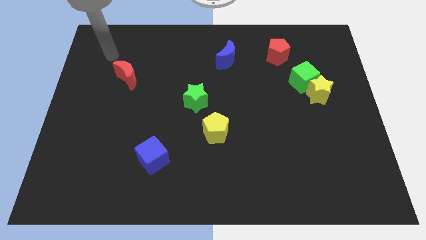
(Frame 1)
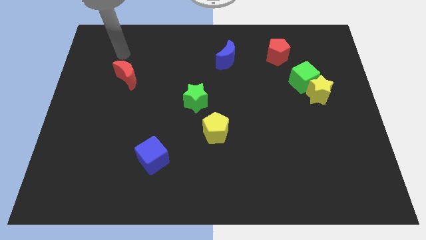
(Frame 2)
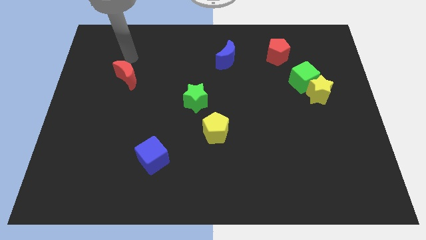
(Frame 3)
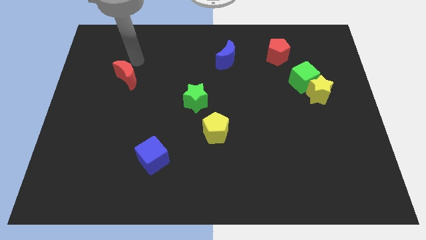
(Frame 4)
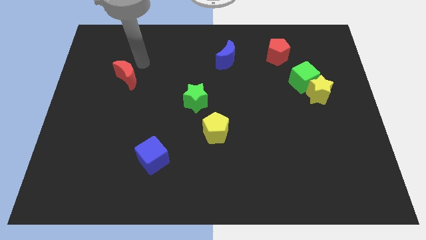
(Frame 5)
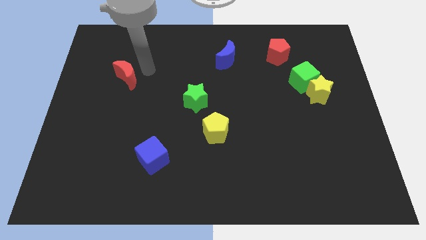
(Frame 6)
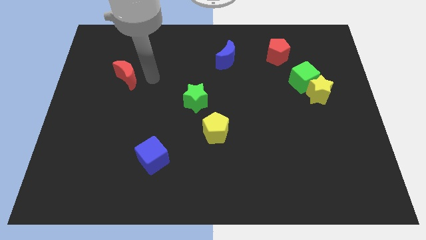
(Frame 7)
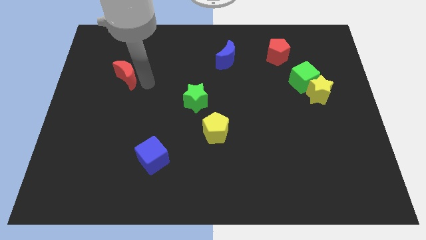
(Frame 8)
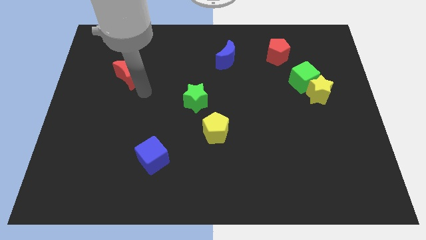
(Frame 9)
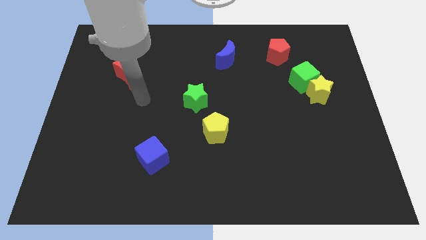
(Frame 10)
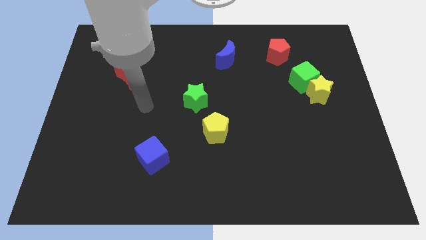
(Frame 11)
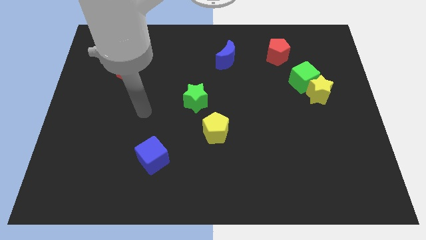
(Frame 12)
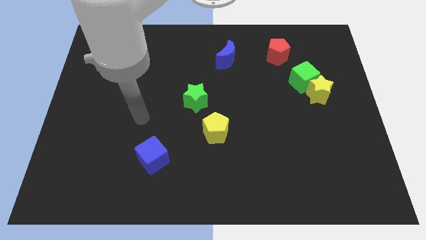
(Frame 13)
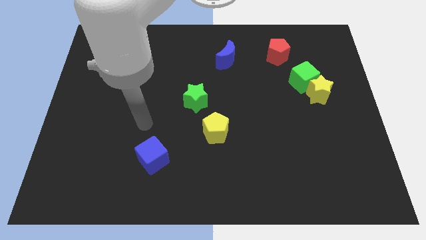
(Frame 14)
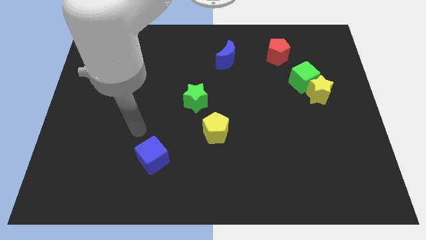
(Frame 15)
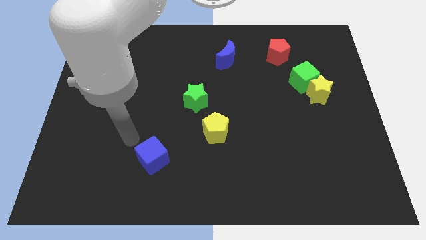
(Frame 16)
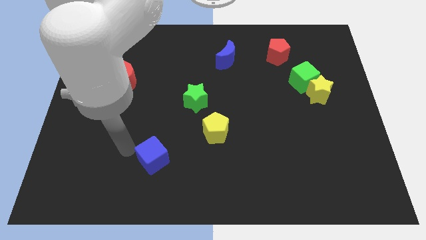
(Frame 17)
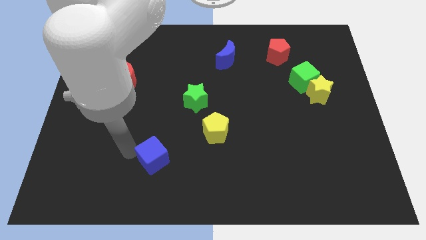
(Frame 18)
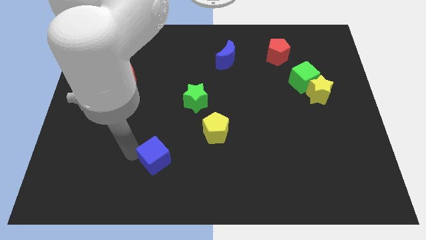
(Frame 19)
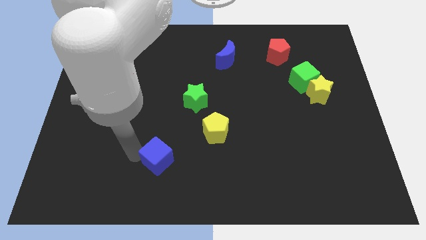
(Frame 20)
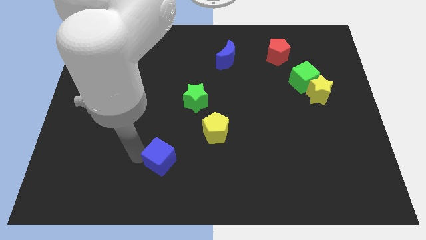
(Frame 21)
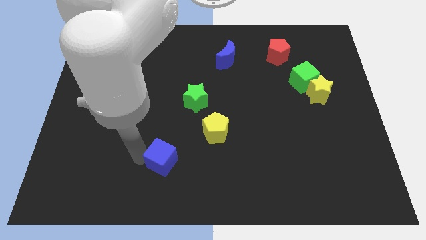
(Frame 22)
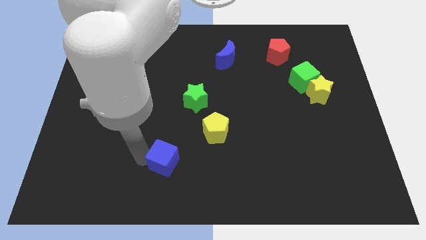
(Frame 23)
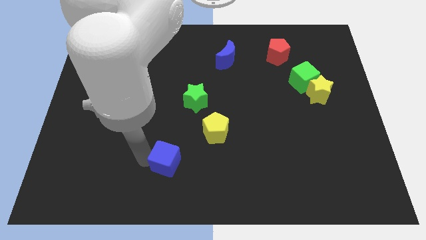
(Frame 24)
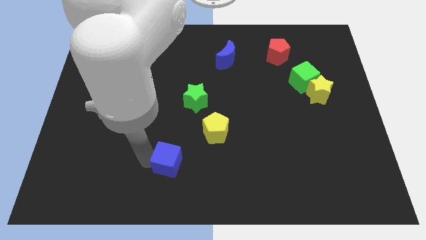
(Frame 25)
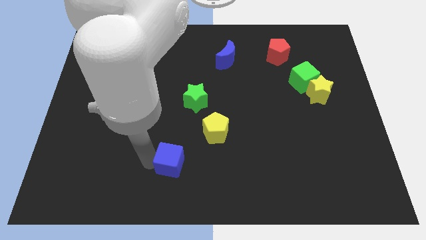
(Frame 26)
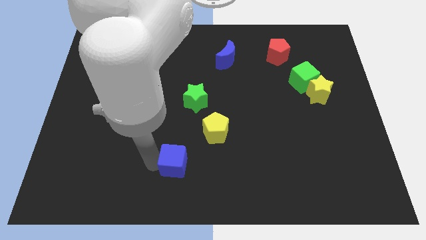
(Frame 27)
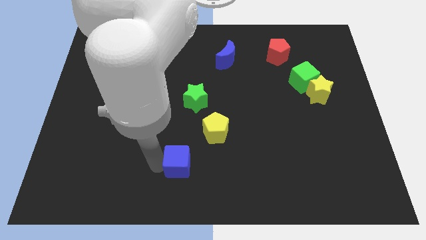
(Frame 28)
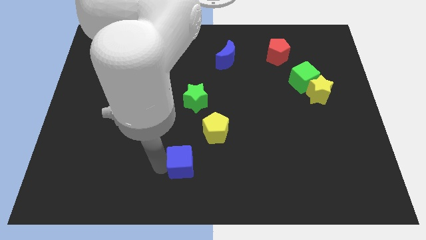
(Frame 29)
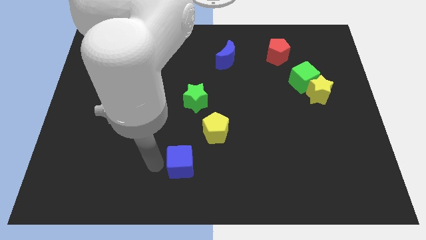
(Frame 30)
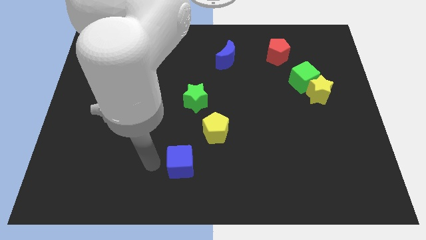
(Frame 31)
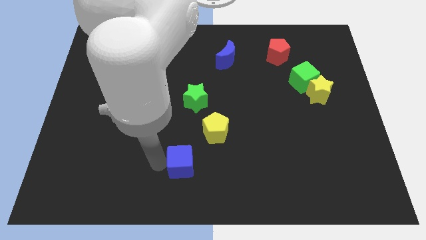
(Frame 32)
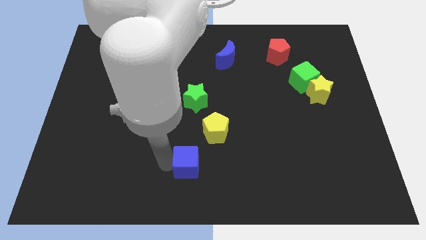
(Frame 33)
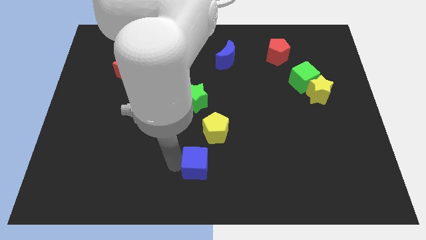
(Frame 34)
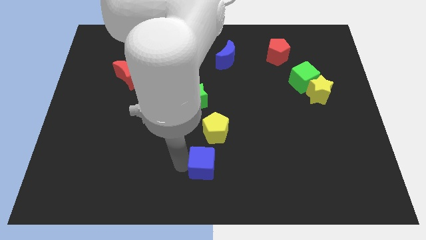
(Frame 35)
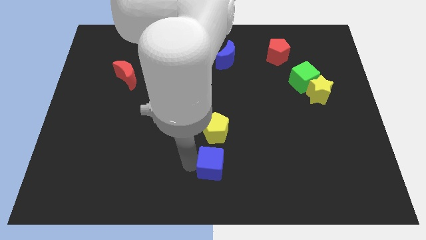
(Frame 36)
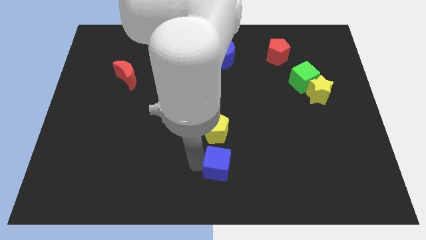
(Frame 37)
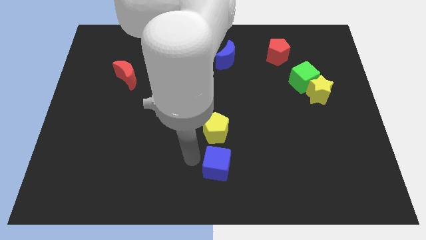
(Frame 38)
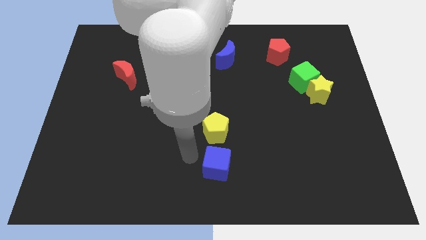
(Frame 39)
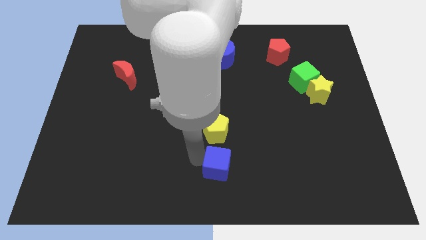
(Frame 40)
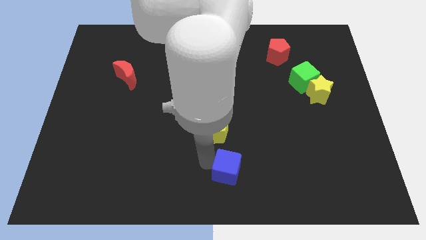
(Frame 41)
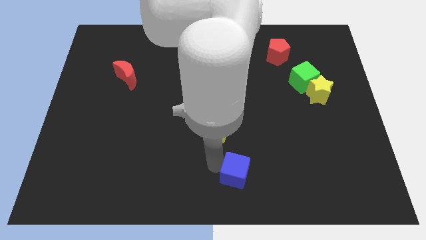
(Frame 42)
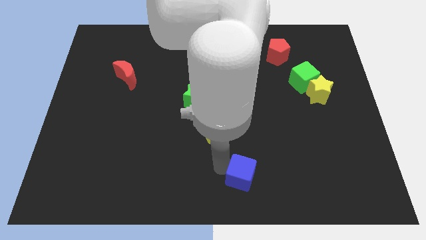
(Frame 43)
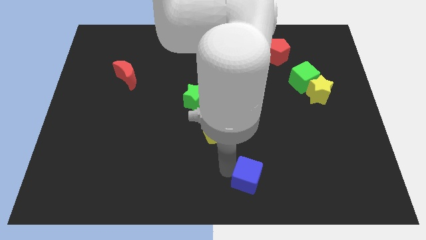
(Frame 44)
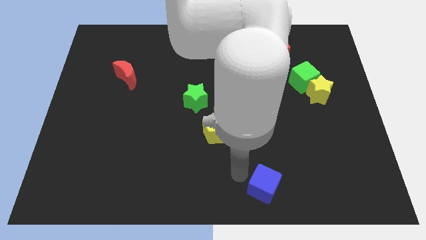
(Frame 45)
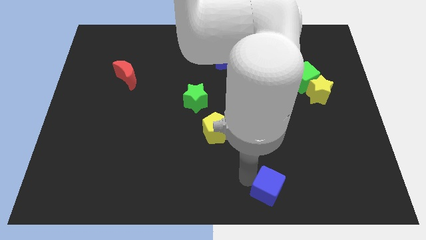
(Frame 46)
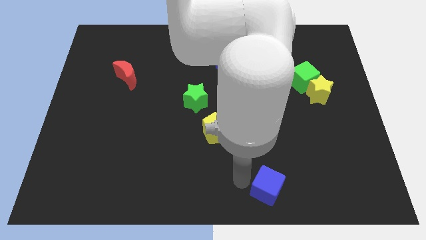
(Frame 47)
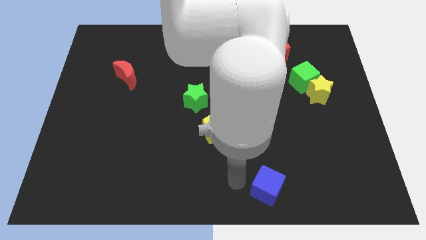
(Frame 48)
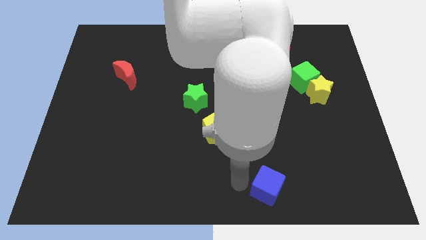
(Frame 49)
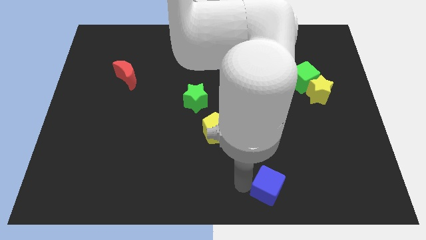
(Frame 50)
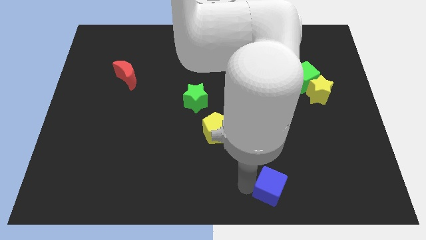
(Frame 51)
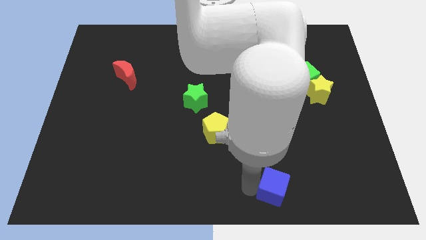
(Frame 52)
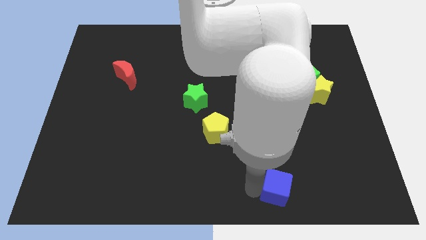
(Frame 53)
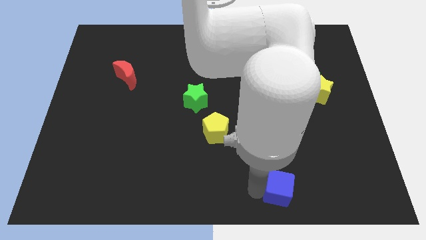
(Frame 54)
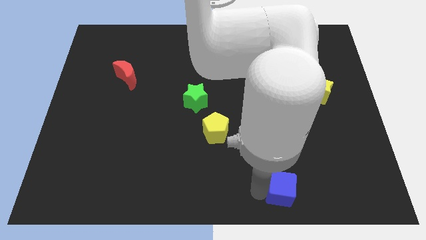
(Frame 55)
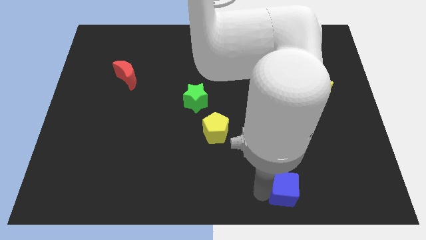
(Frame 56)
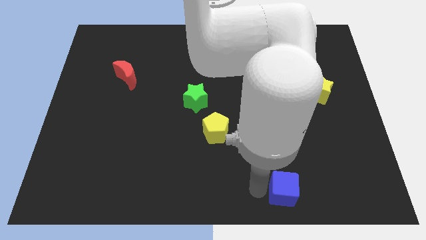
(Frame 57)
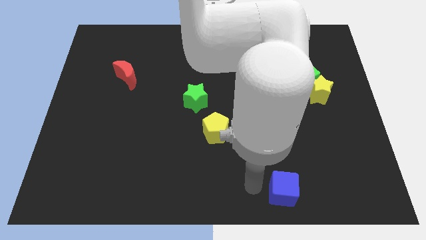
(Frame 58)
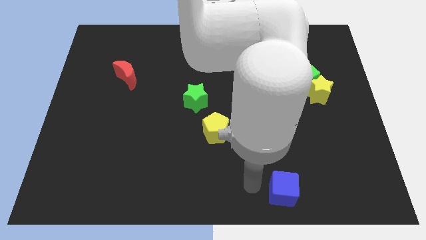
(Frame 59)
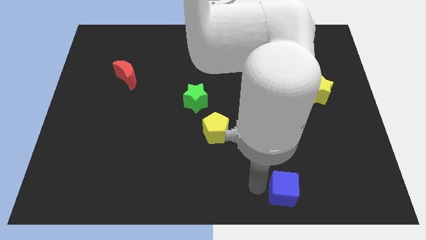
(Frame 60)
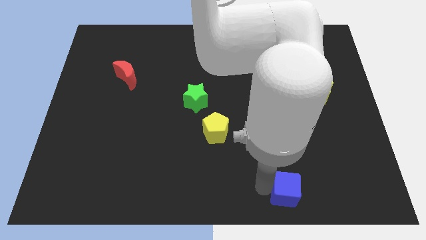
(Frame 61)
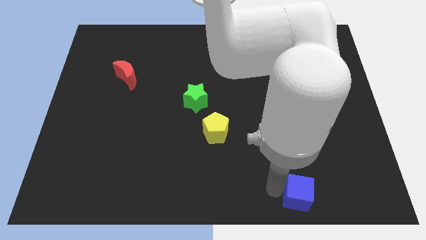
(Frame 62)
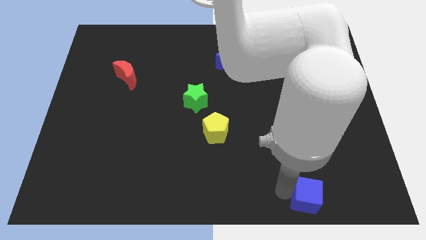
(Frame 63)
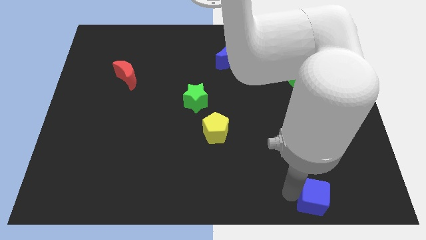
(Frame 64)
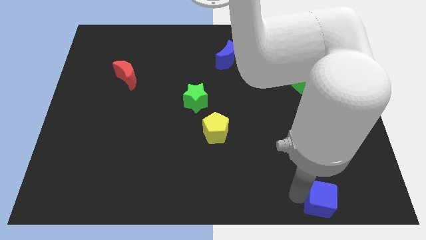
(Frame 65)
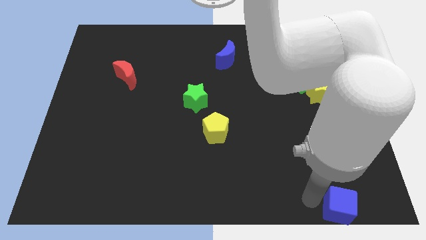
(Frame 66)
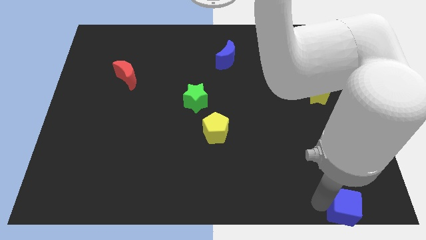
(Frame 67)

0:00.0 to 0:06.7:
put the blue cube to the bottom right

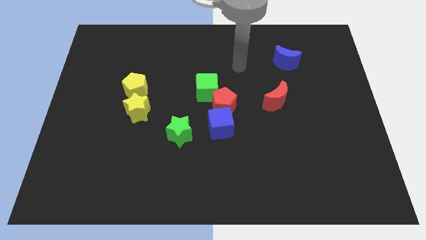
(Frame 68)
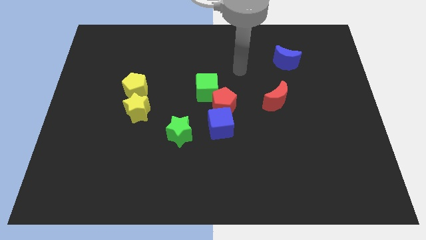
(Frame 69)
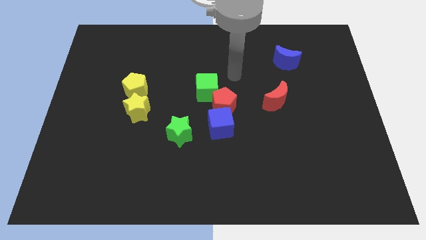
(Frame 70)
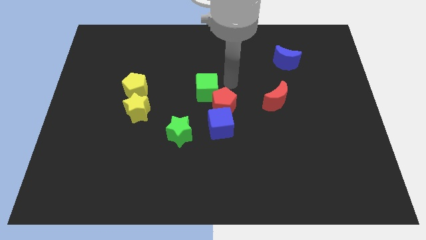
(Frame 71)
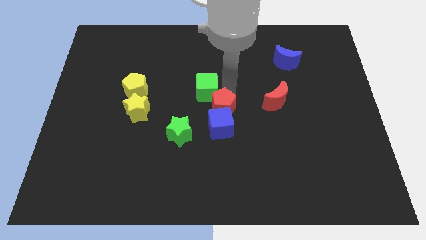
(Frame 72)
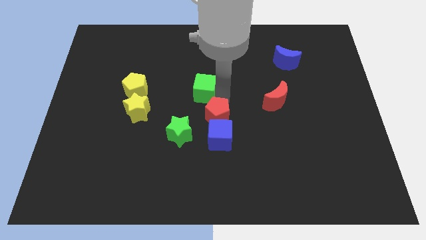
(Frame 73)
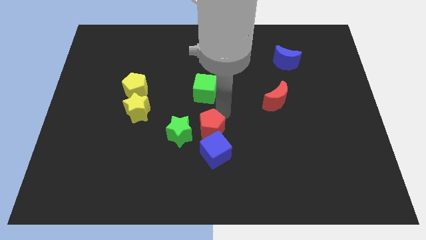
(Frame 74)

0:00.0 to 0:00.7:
slide the blue cube to the bottom side
